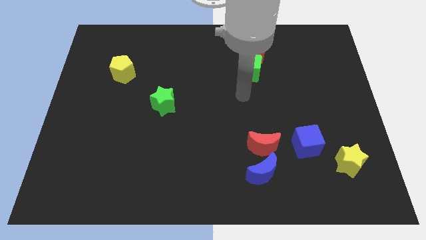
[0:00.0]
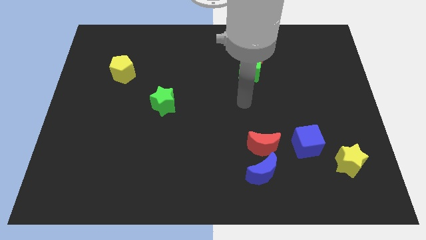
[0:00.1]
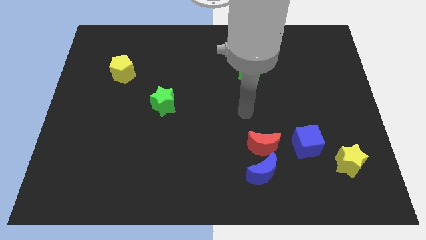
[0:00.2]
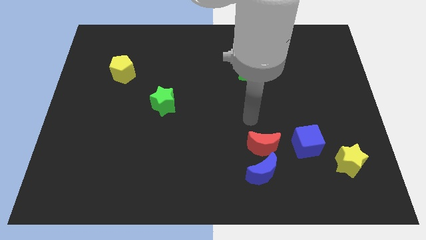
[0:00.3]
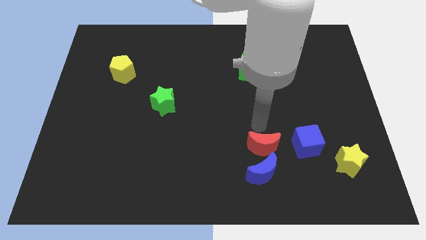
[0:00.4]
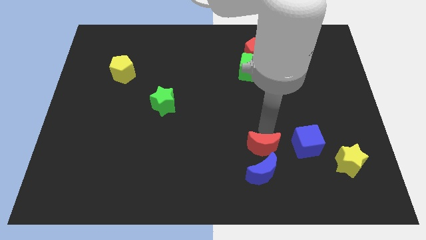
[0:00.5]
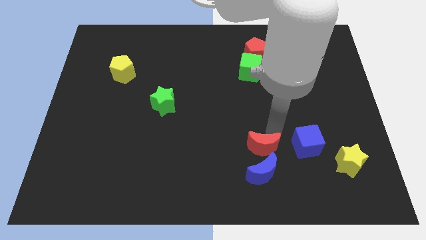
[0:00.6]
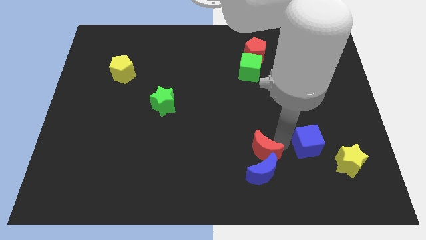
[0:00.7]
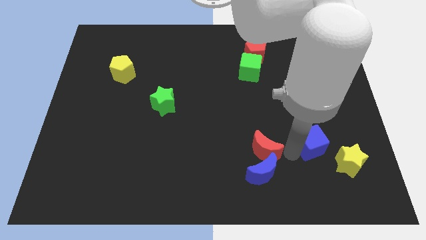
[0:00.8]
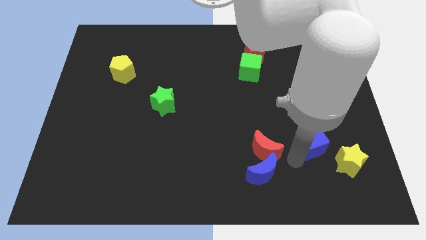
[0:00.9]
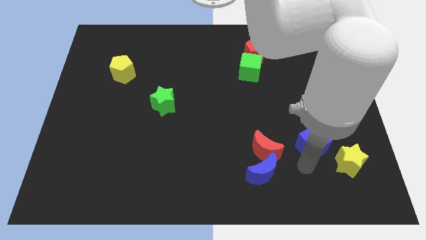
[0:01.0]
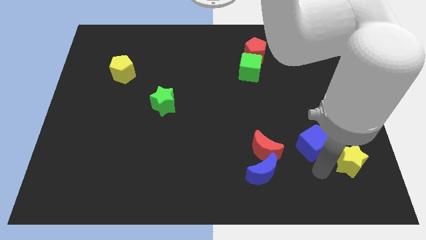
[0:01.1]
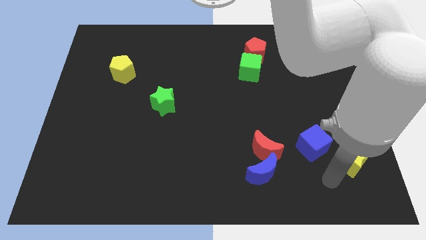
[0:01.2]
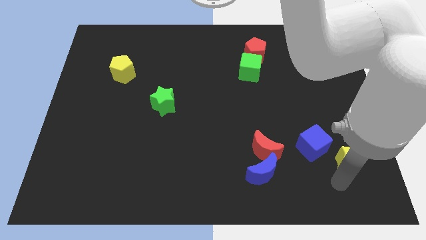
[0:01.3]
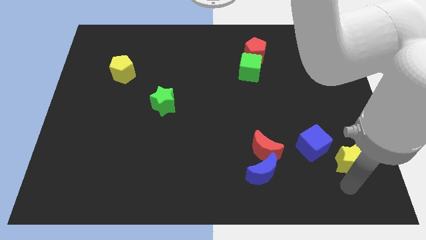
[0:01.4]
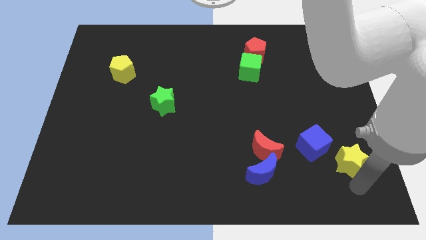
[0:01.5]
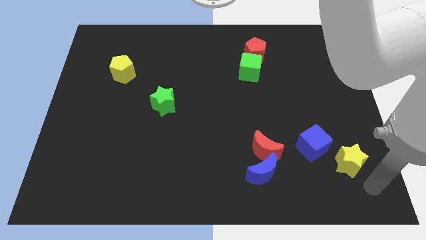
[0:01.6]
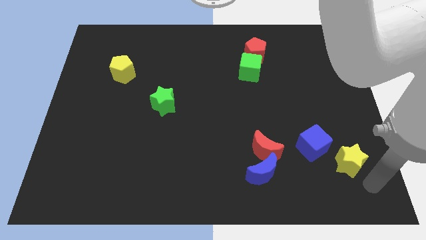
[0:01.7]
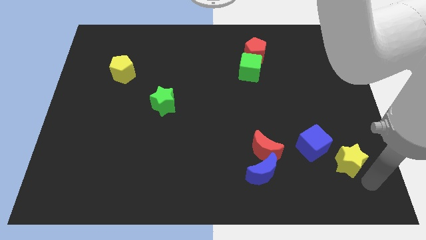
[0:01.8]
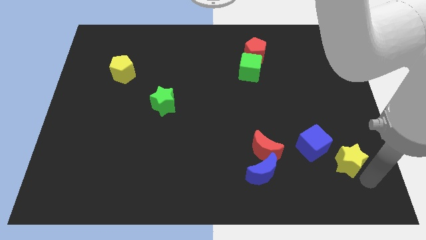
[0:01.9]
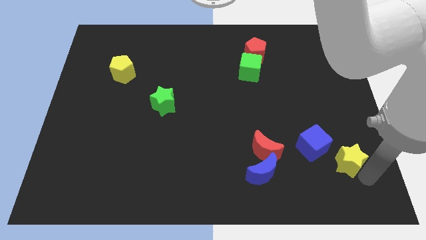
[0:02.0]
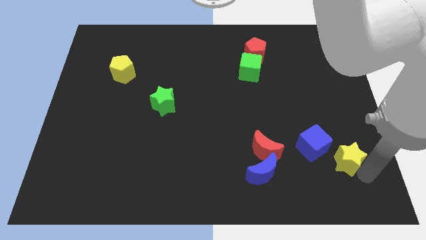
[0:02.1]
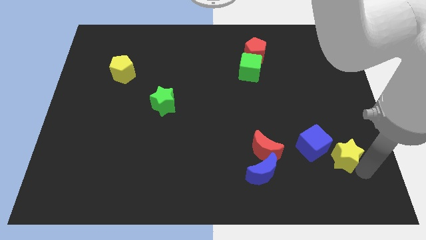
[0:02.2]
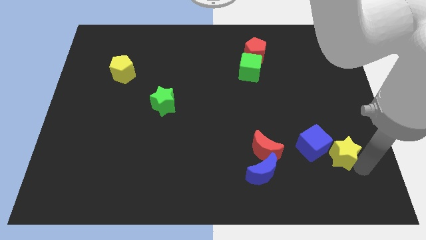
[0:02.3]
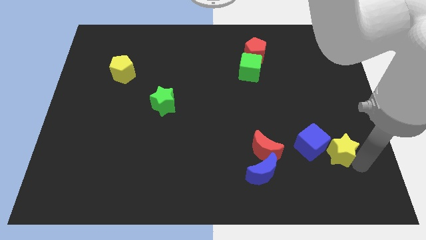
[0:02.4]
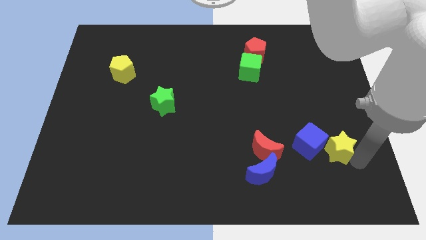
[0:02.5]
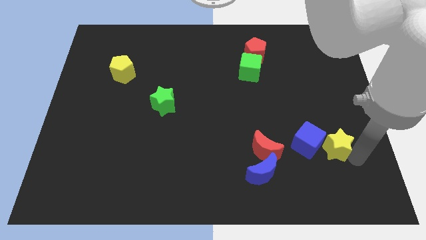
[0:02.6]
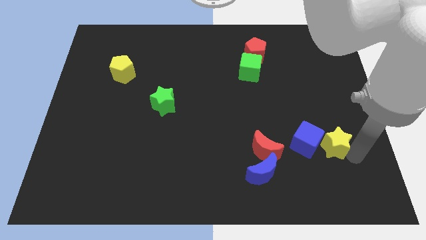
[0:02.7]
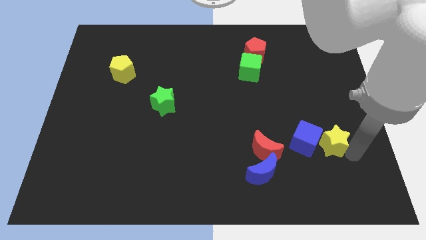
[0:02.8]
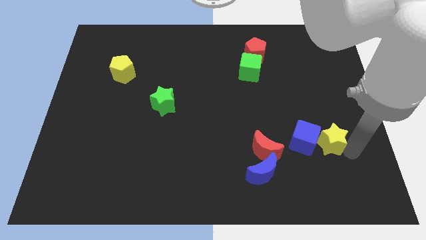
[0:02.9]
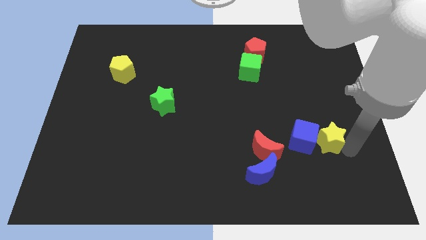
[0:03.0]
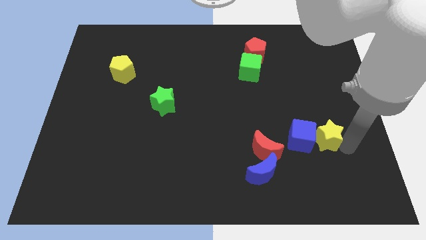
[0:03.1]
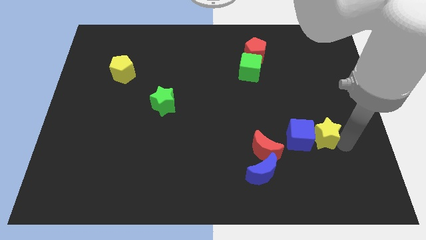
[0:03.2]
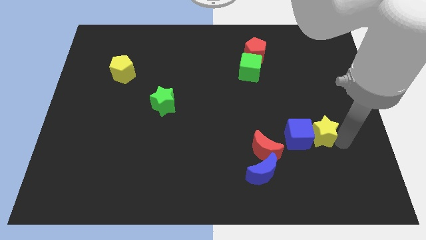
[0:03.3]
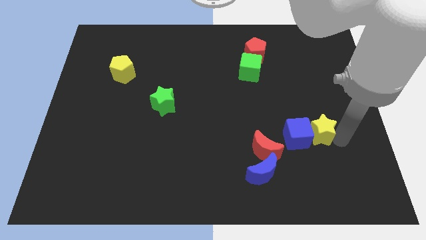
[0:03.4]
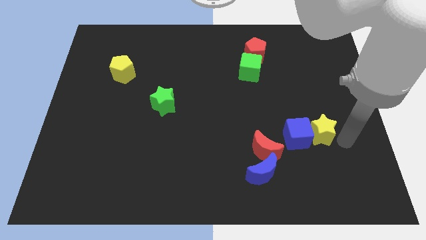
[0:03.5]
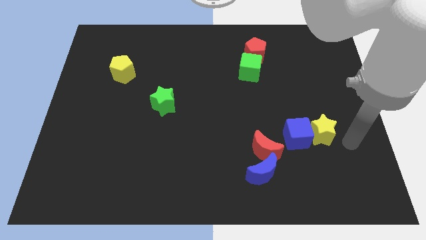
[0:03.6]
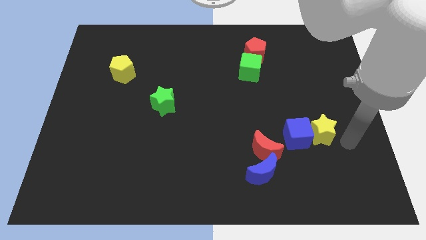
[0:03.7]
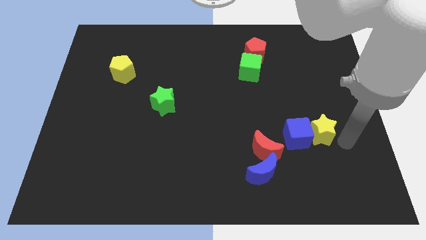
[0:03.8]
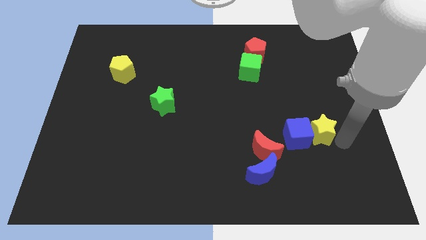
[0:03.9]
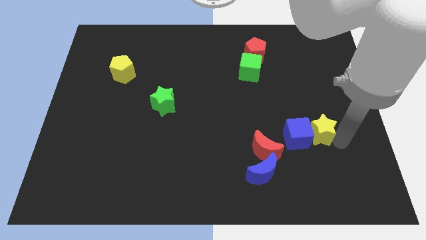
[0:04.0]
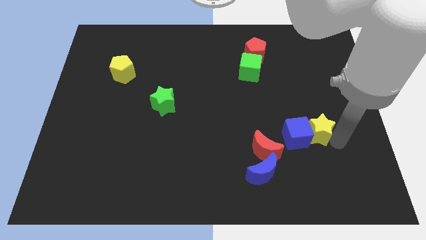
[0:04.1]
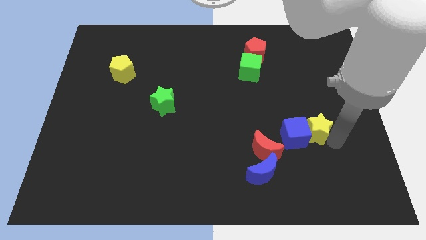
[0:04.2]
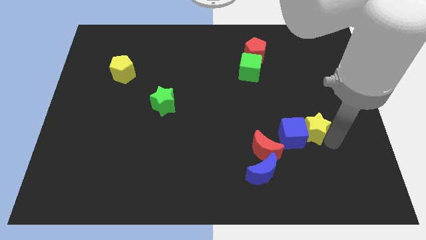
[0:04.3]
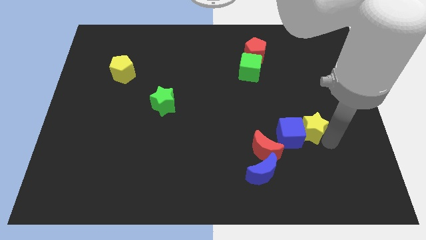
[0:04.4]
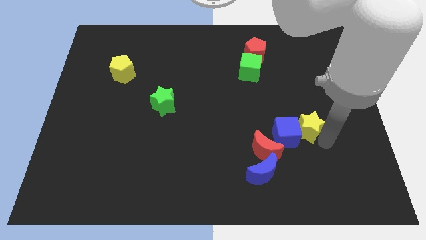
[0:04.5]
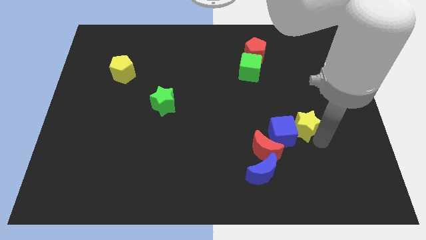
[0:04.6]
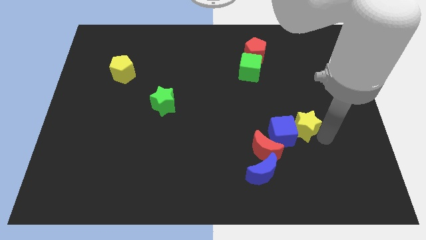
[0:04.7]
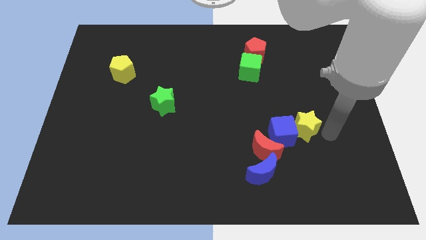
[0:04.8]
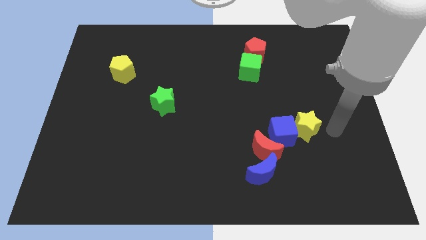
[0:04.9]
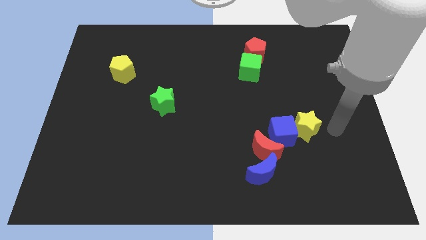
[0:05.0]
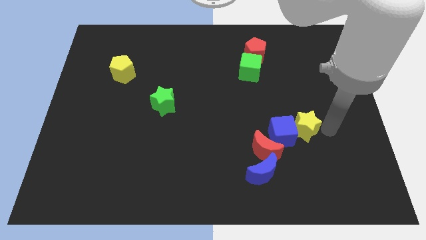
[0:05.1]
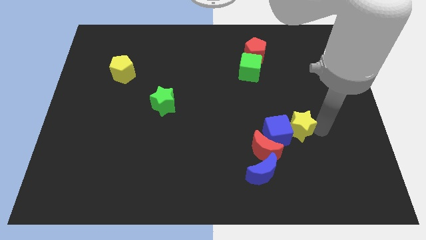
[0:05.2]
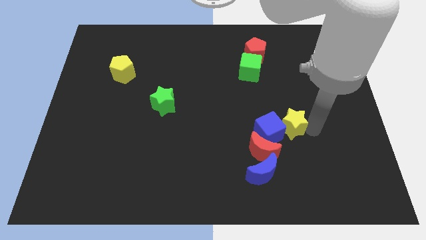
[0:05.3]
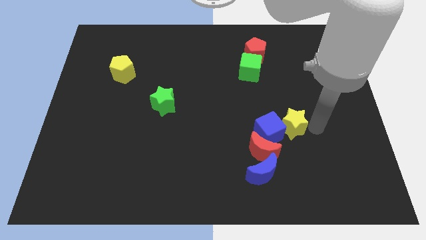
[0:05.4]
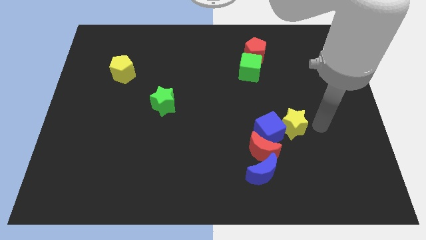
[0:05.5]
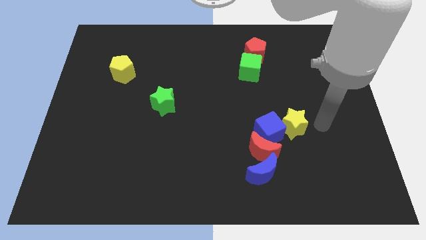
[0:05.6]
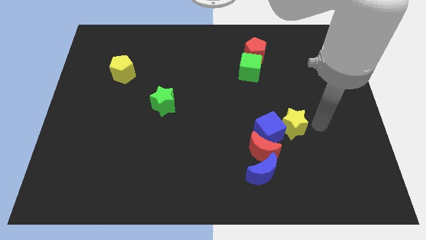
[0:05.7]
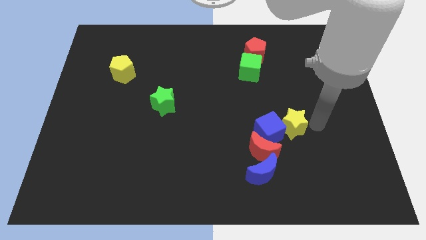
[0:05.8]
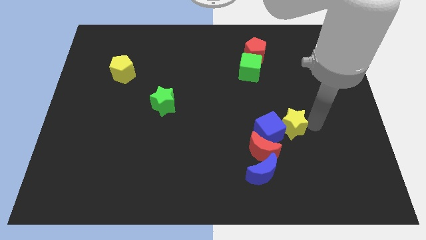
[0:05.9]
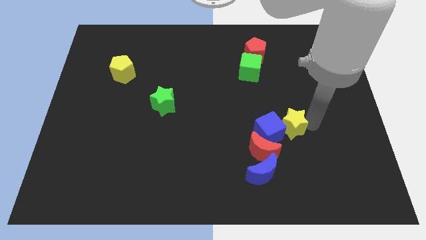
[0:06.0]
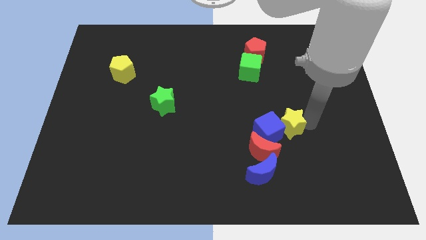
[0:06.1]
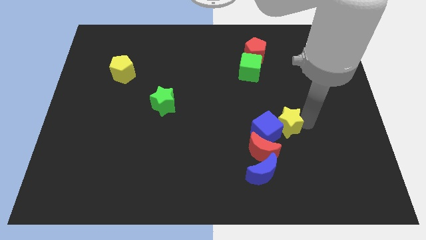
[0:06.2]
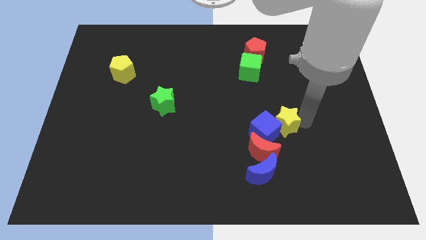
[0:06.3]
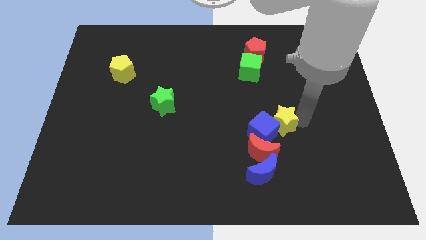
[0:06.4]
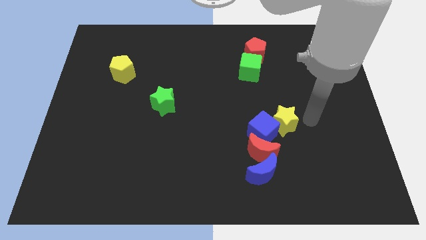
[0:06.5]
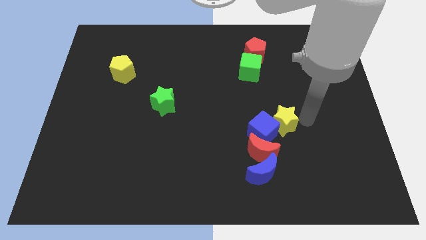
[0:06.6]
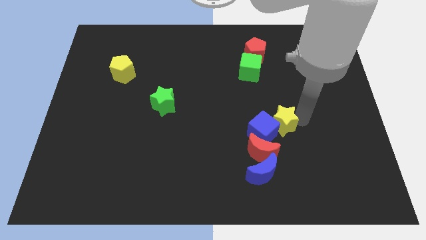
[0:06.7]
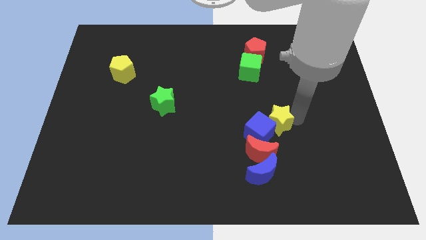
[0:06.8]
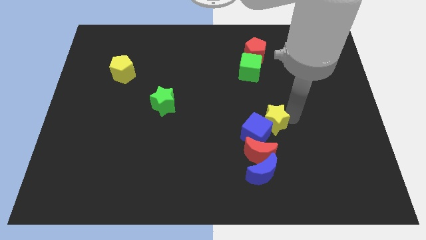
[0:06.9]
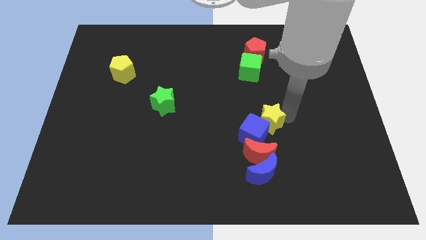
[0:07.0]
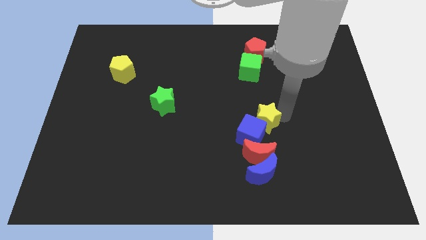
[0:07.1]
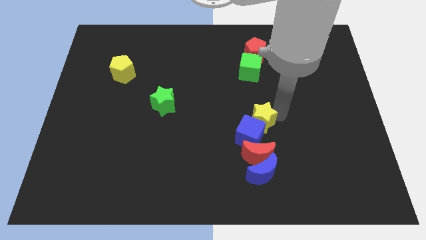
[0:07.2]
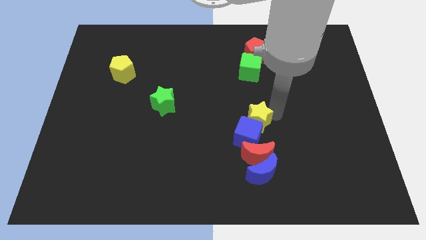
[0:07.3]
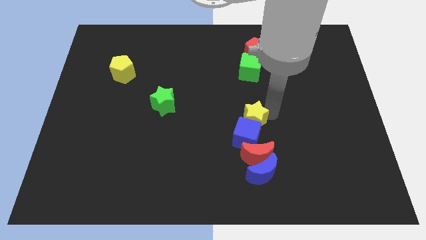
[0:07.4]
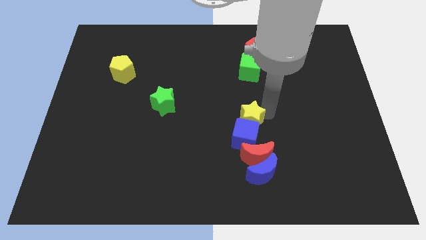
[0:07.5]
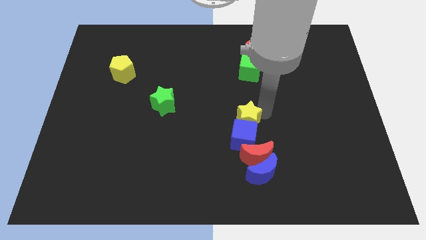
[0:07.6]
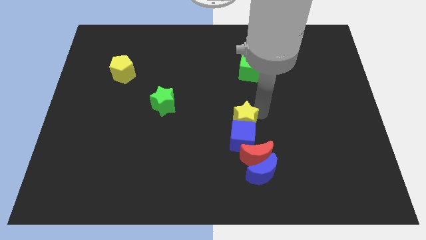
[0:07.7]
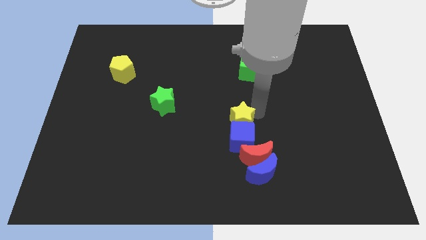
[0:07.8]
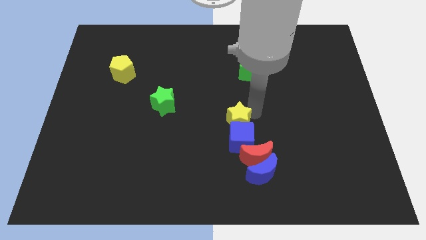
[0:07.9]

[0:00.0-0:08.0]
push the yellow star diagonally up and to the left of the red moon
